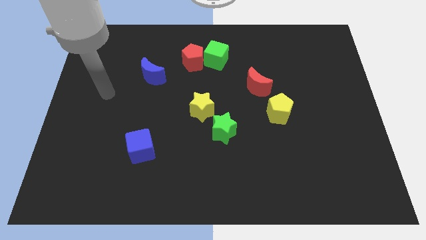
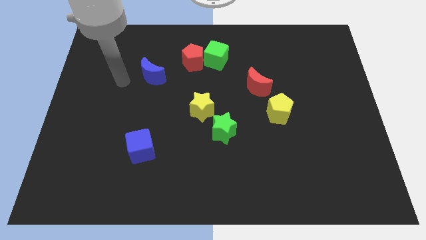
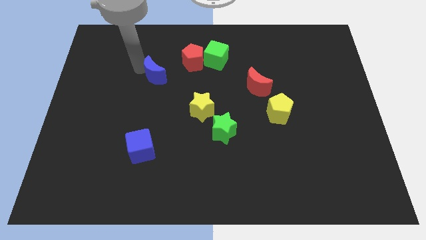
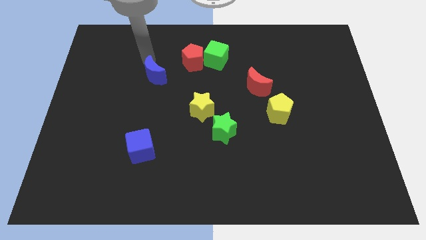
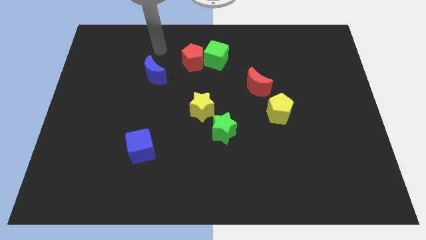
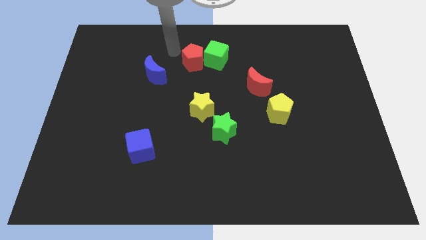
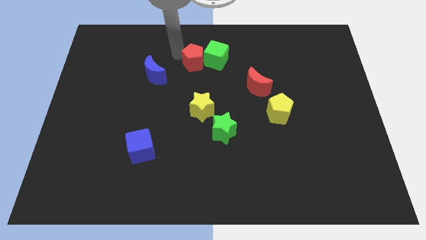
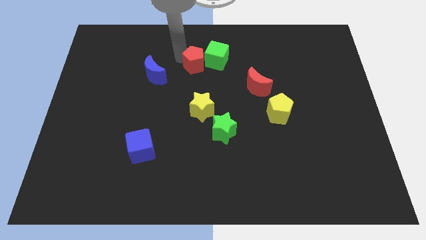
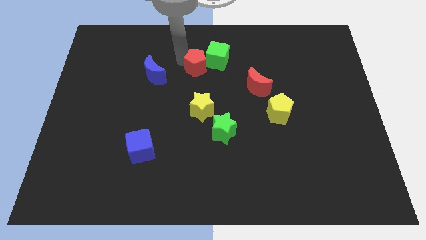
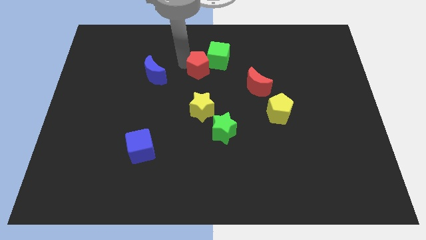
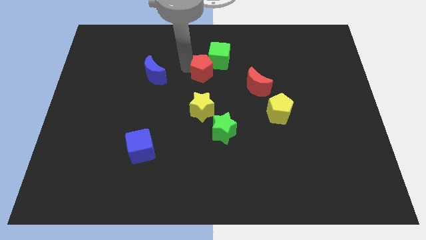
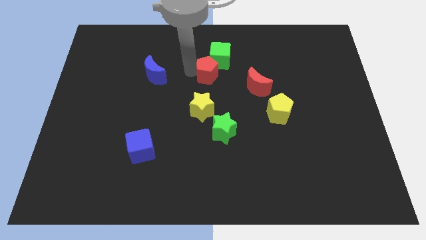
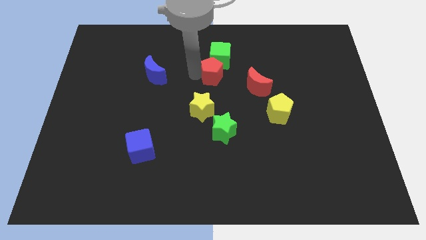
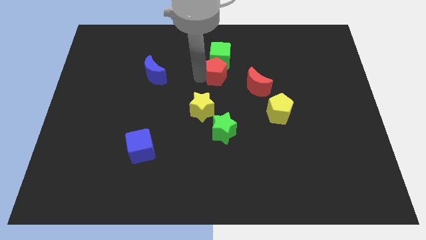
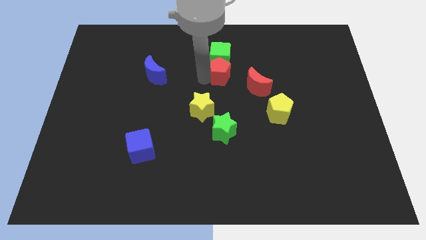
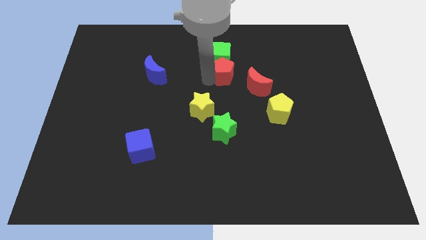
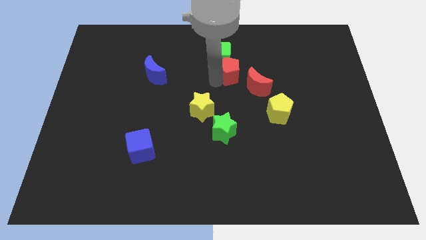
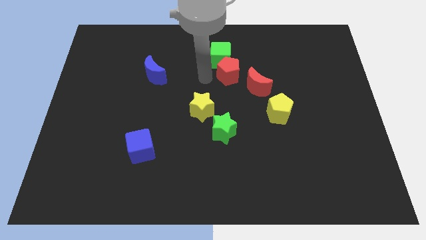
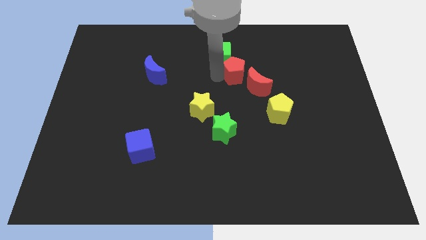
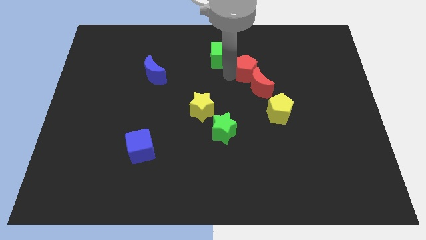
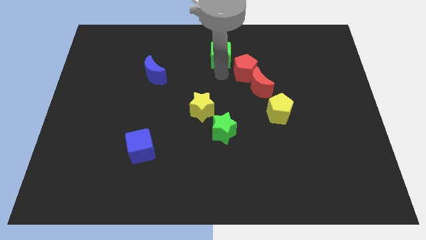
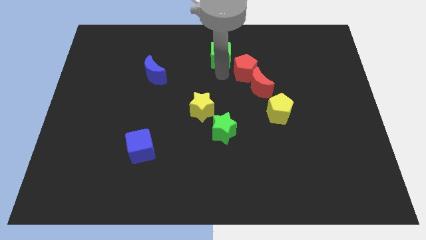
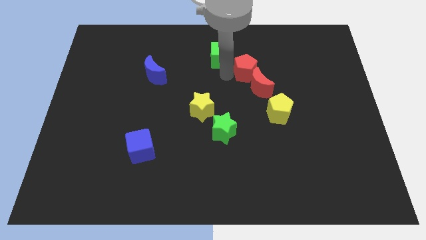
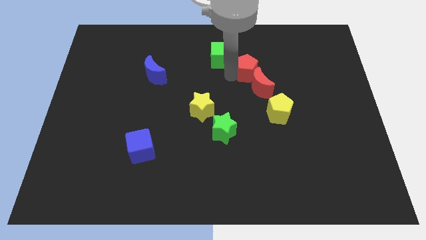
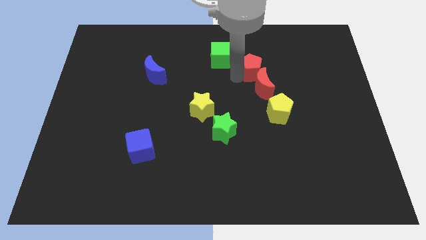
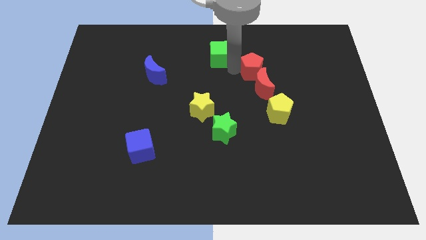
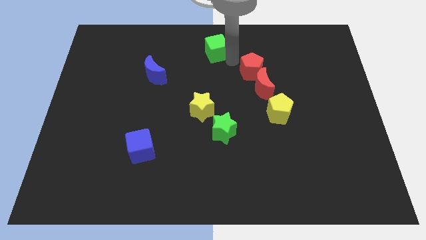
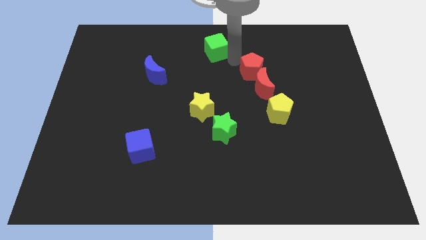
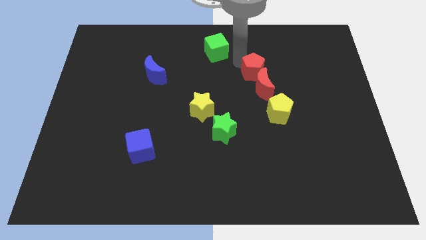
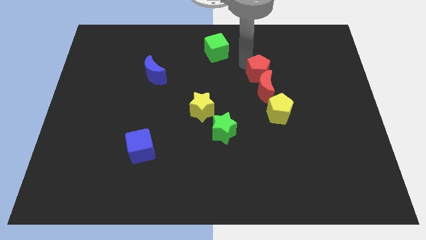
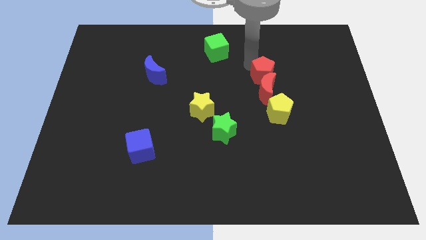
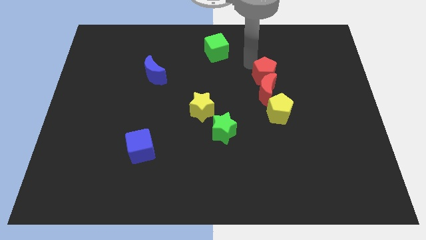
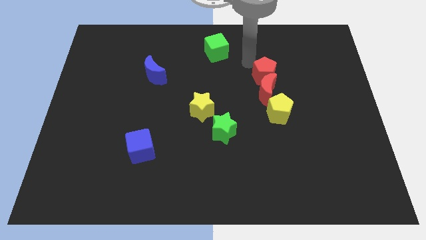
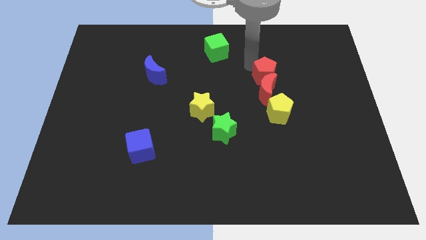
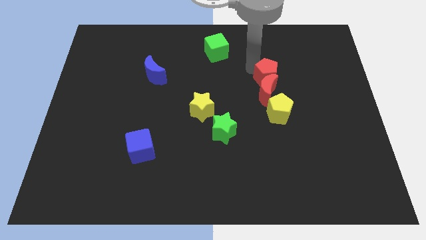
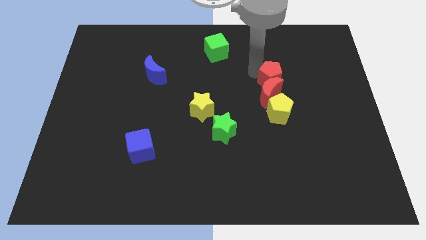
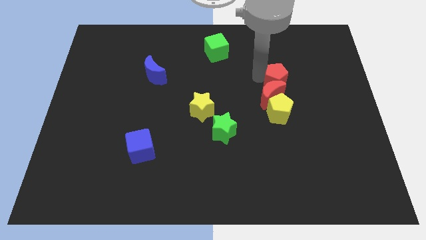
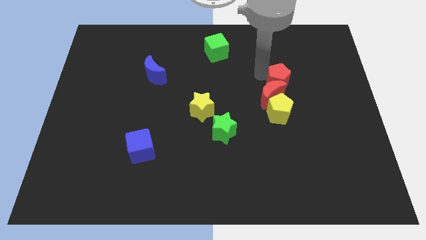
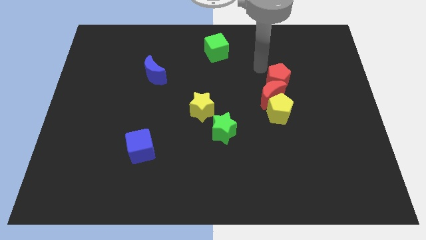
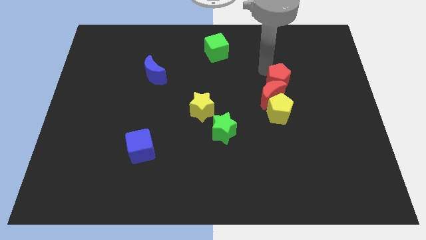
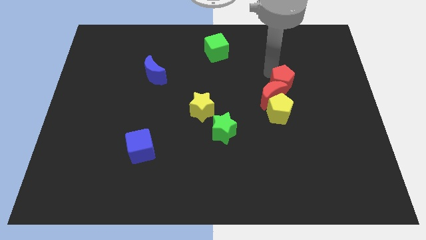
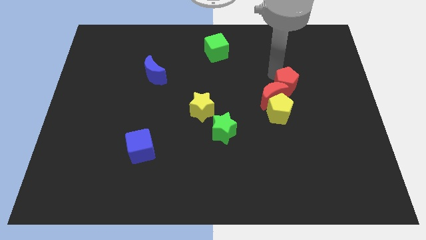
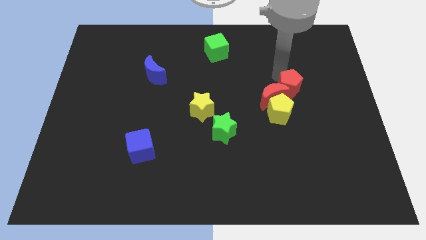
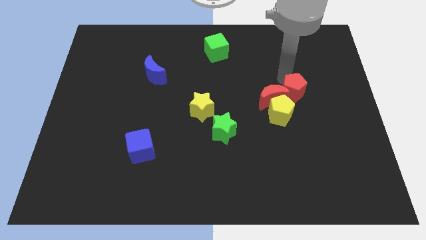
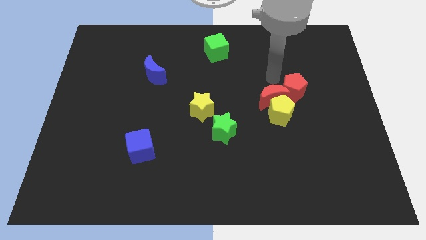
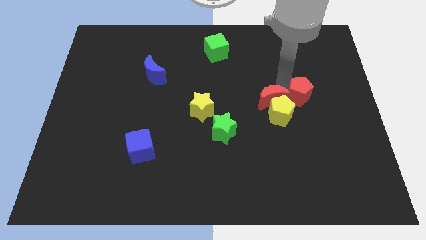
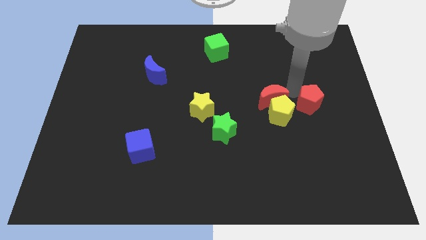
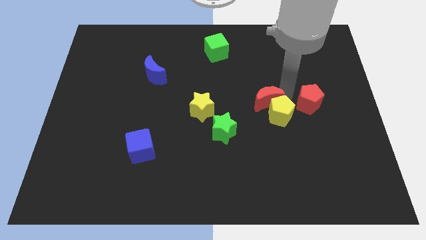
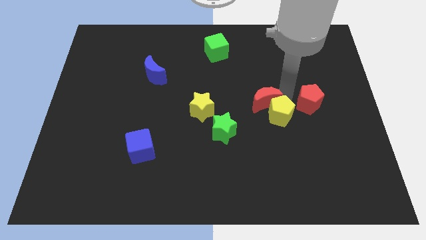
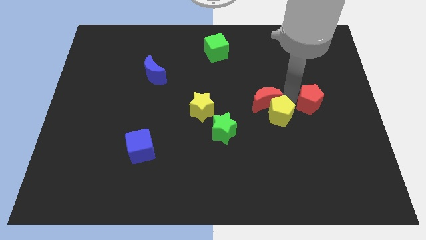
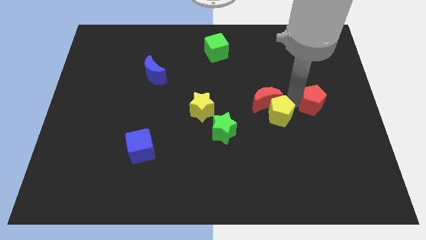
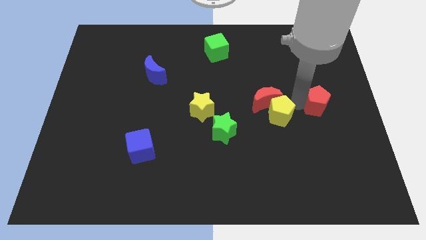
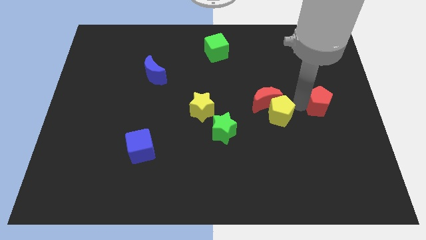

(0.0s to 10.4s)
put the red pentagon to the center right
